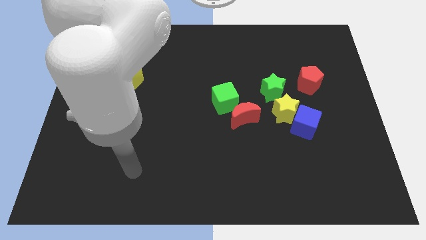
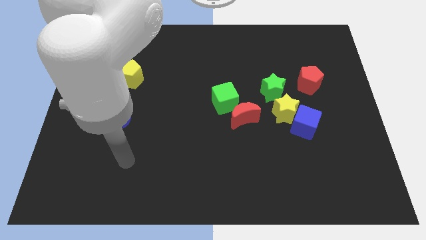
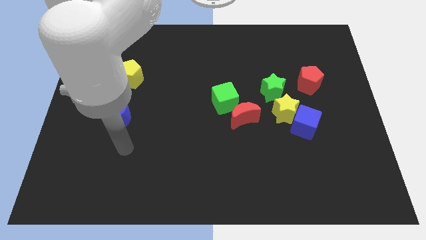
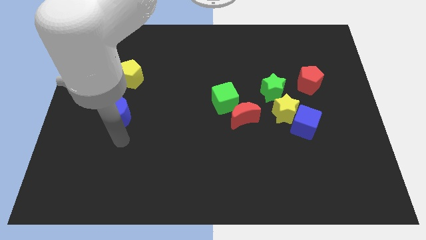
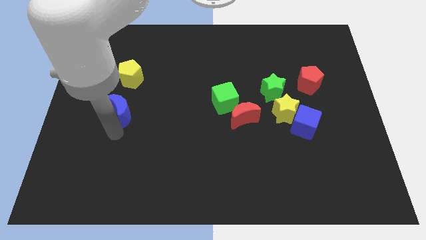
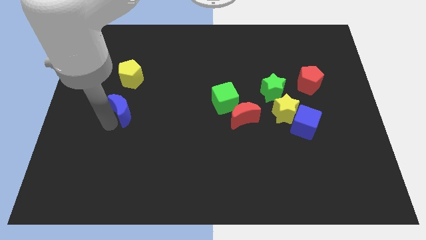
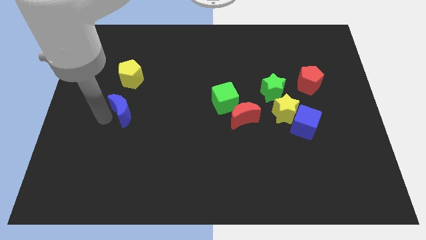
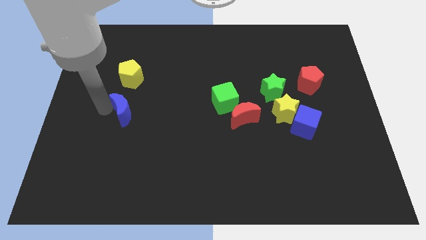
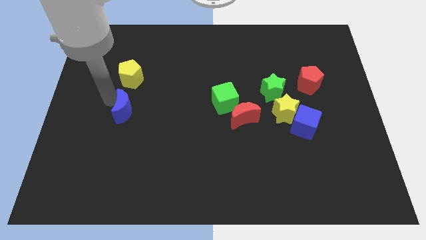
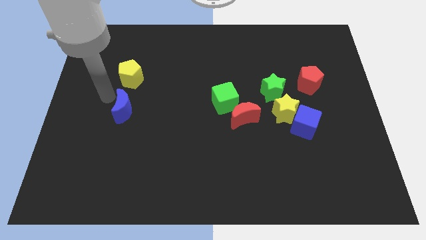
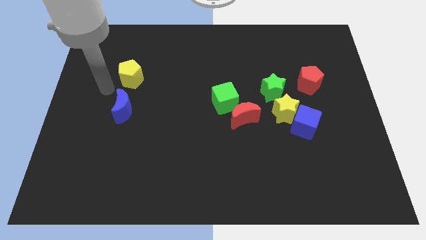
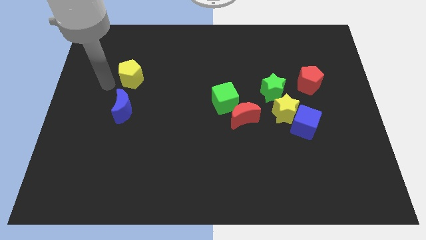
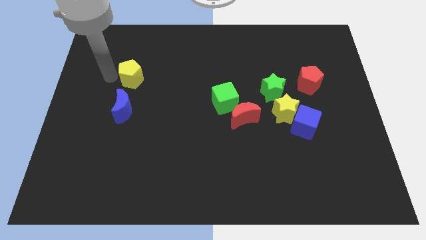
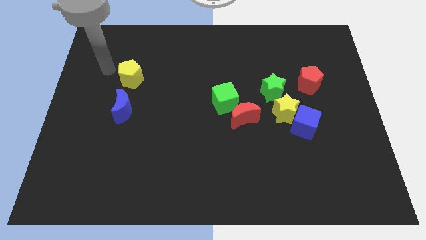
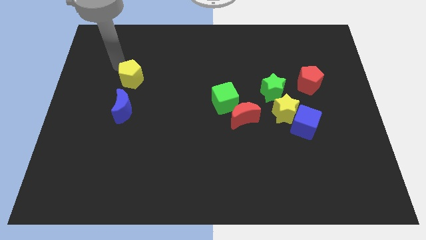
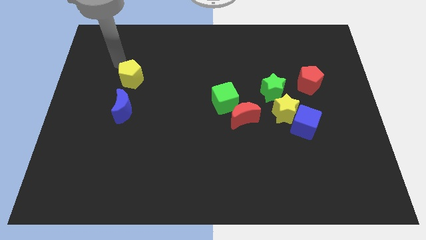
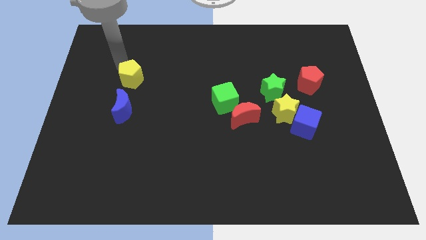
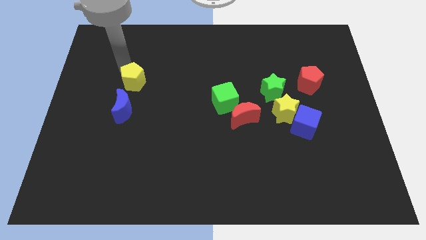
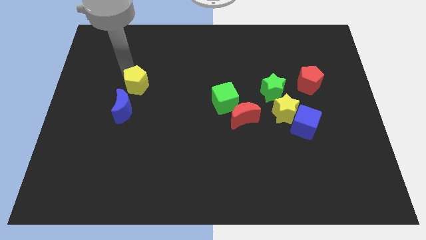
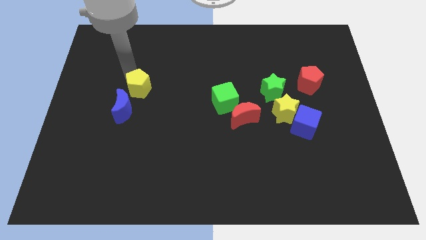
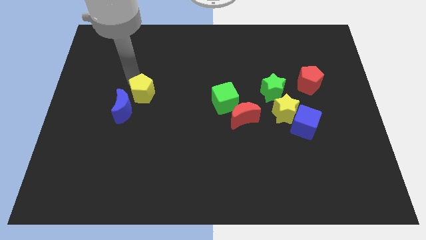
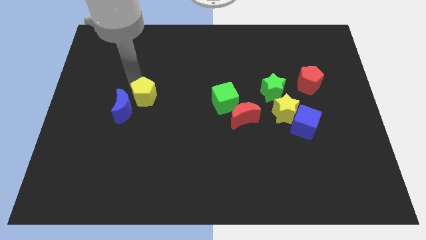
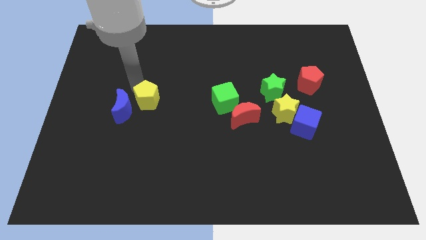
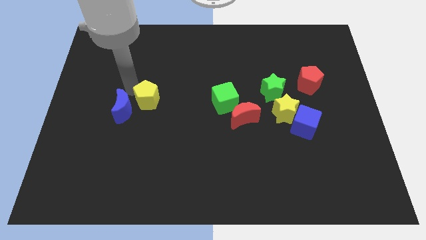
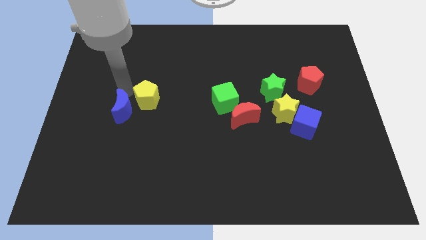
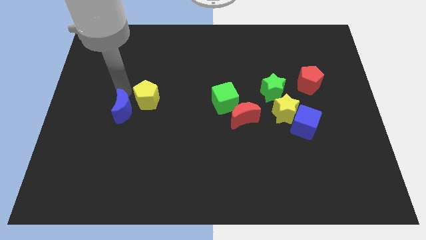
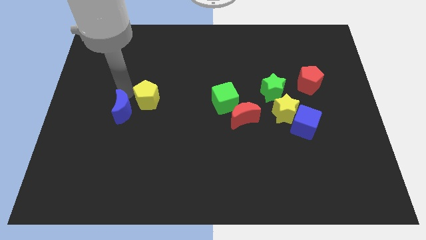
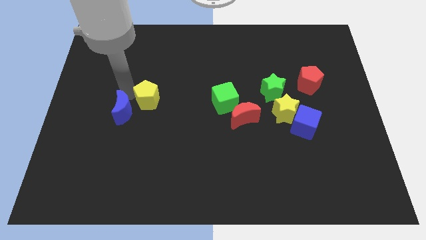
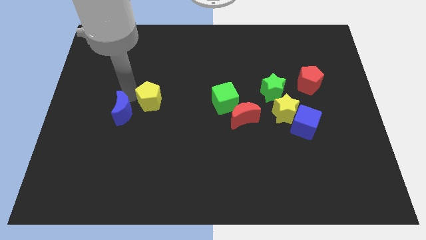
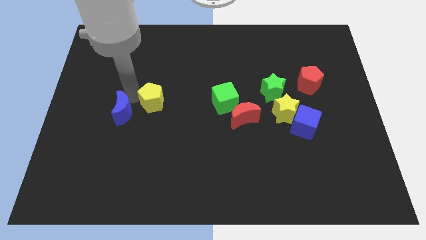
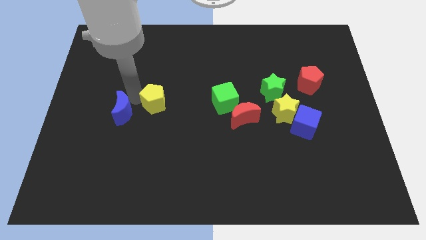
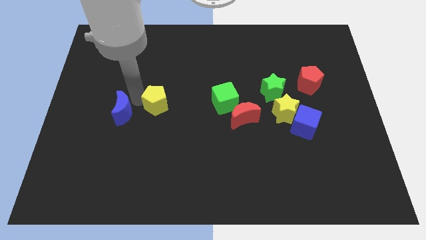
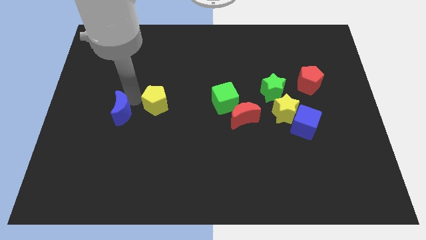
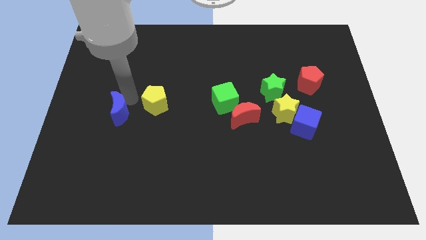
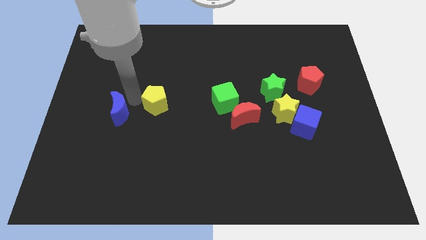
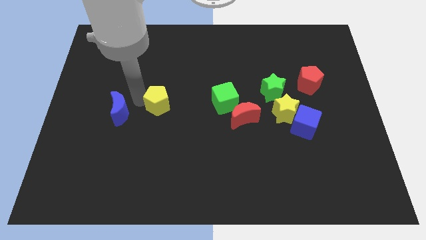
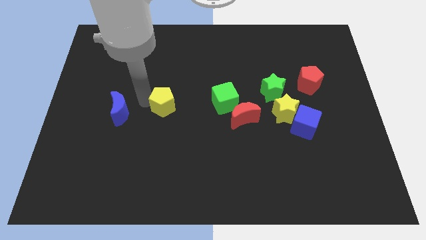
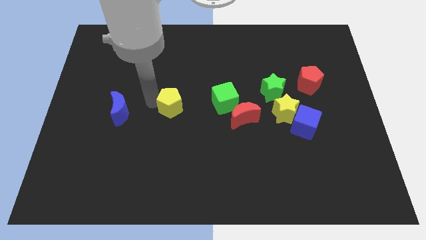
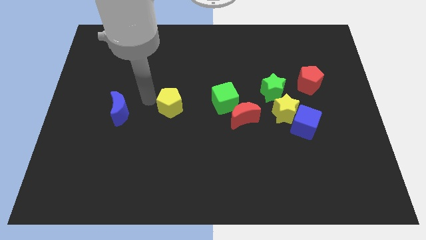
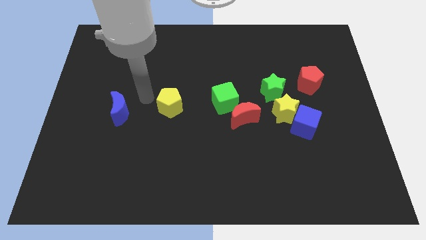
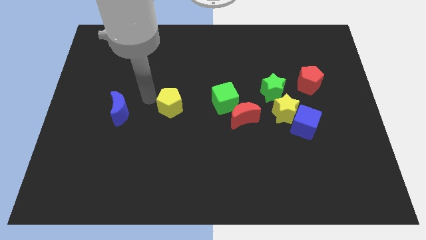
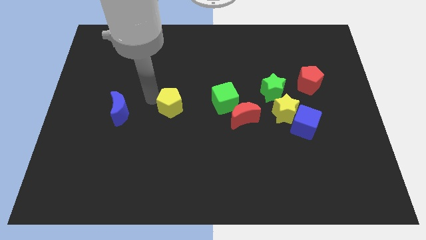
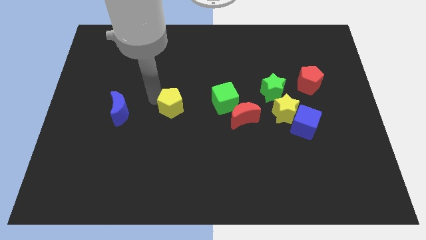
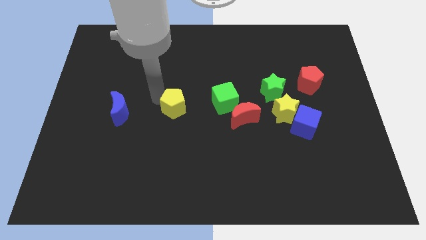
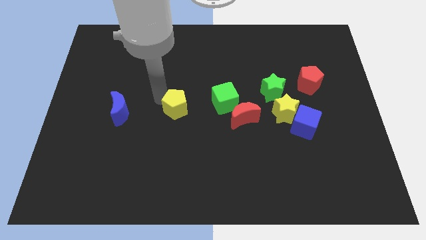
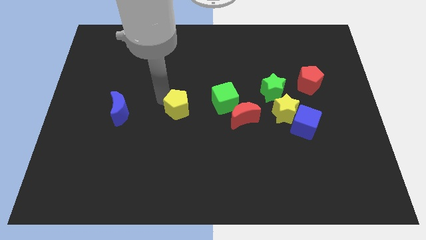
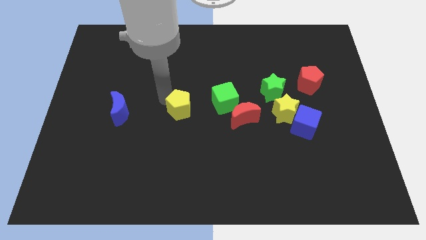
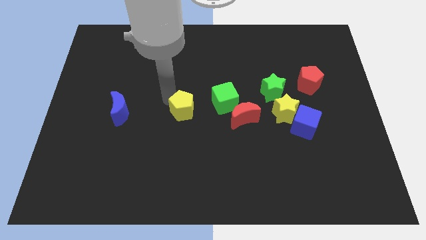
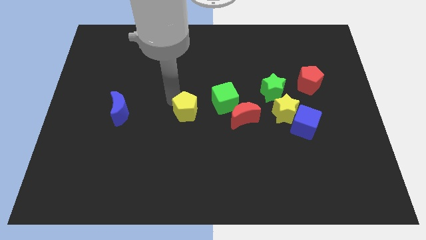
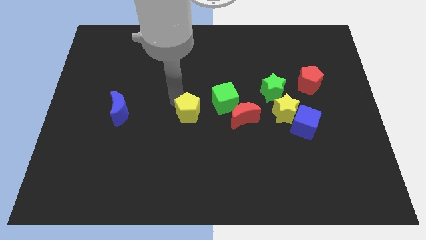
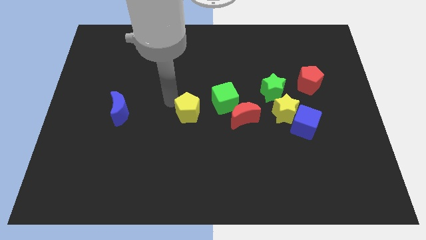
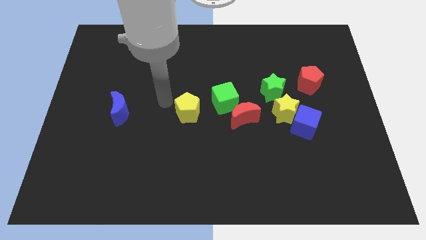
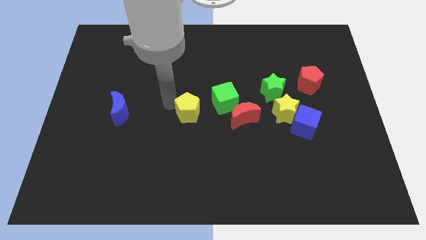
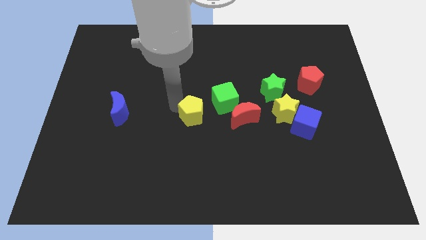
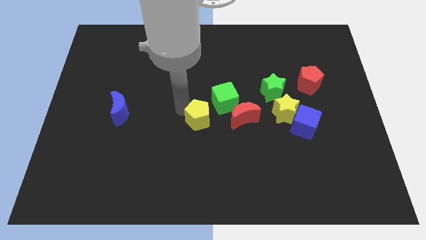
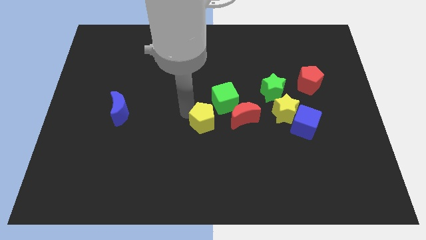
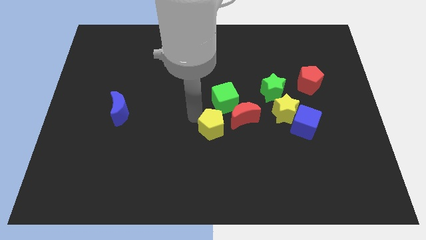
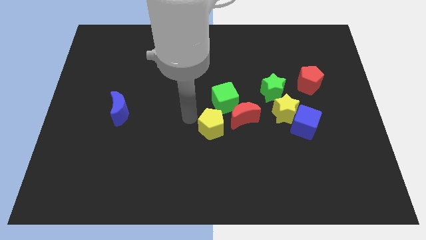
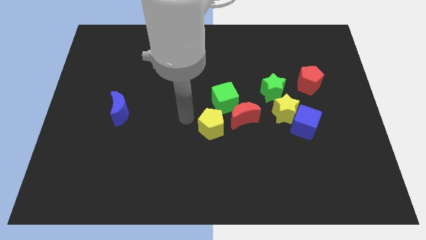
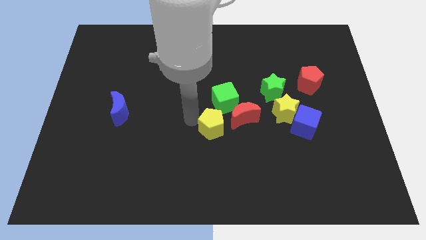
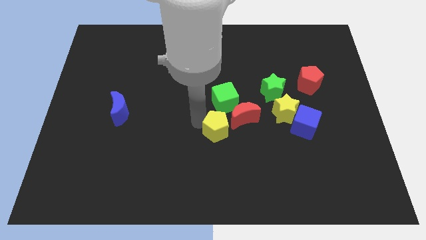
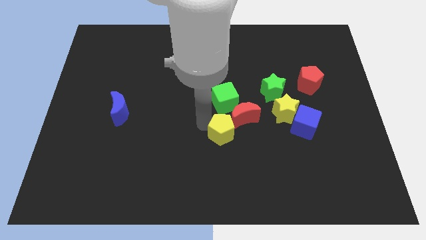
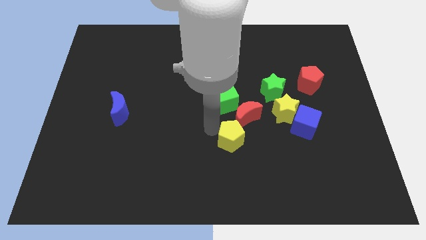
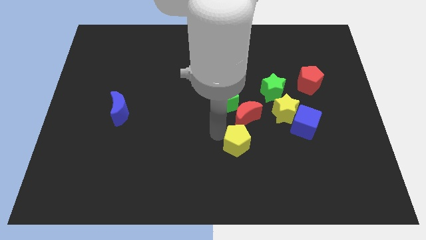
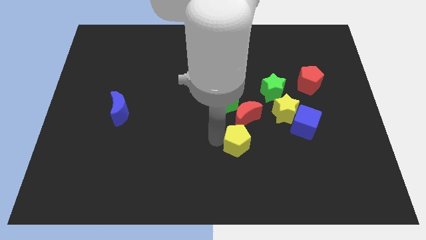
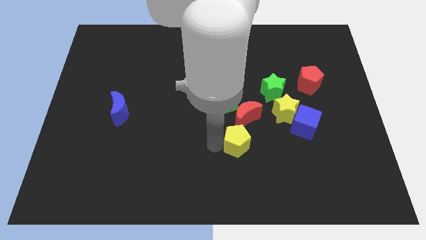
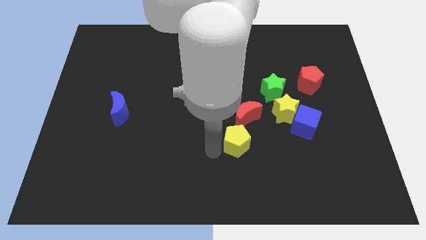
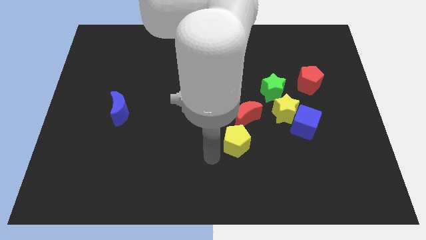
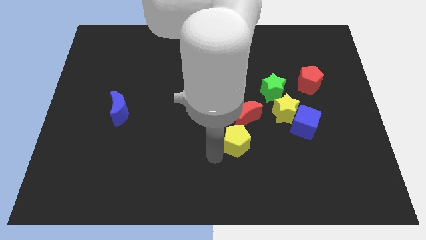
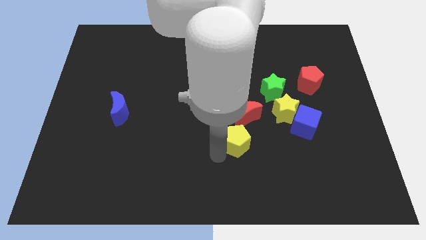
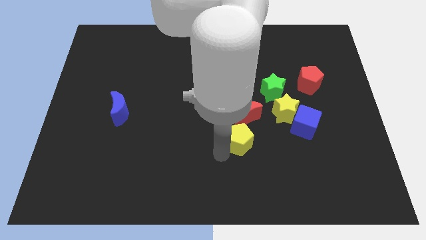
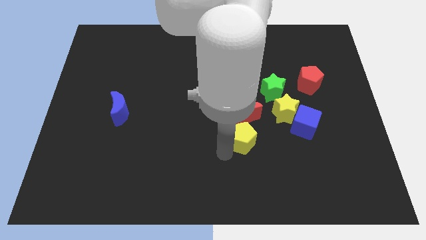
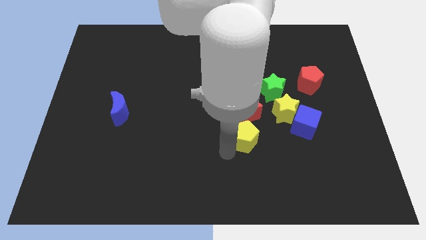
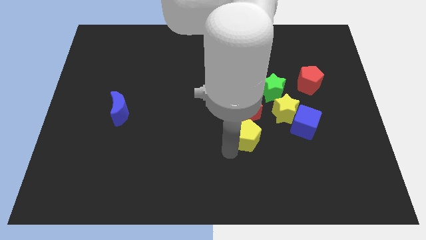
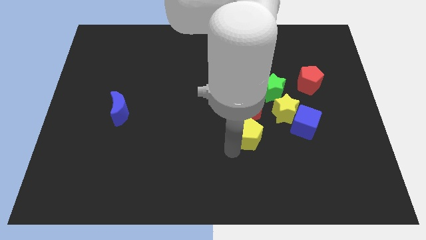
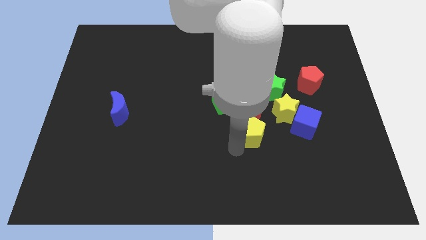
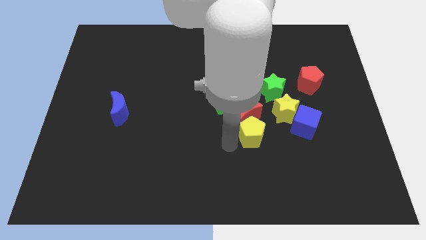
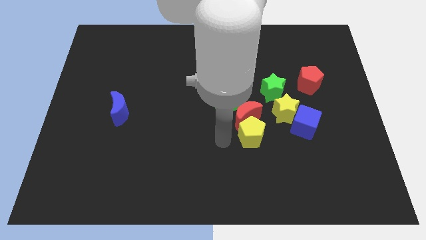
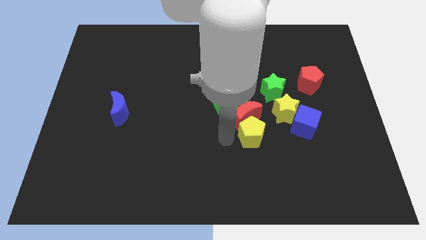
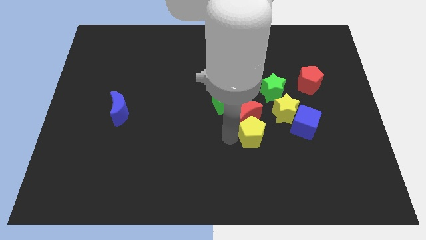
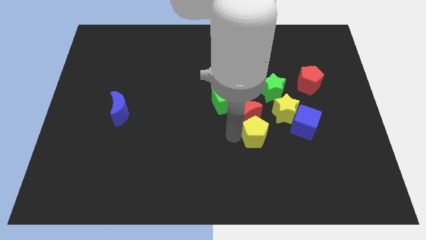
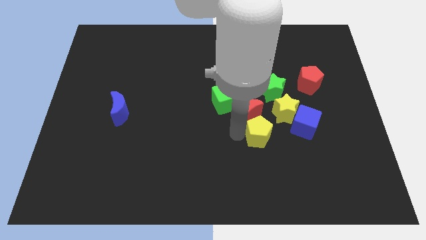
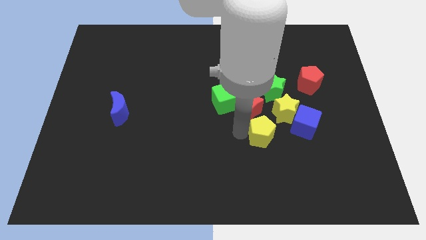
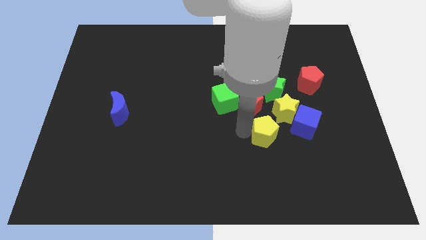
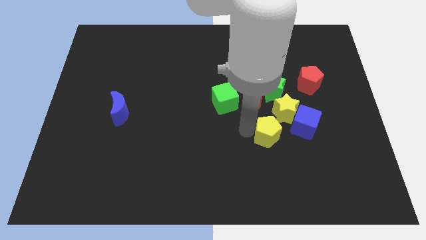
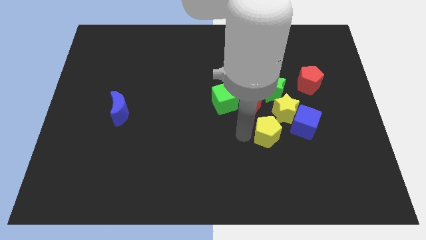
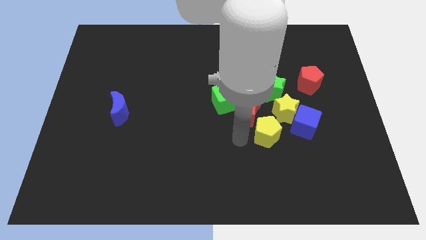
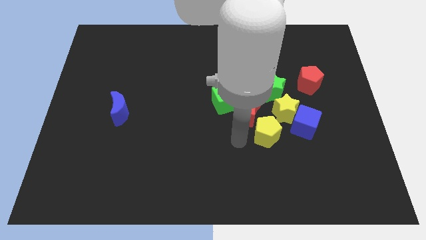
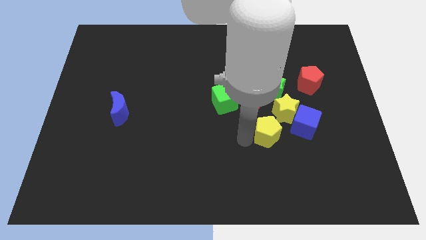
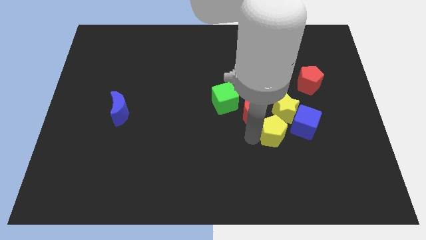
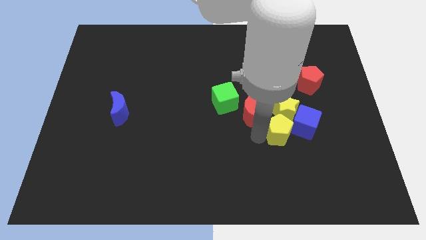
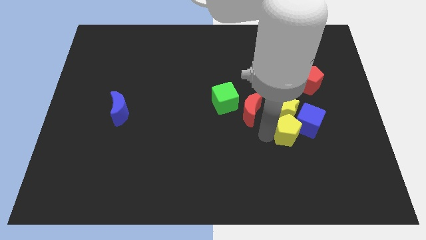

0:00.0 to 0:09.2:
push the yellow pentagon towards the blue cube
